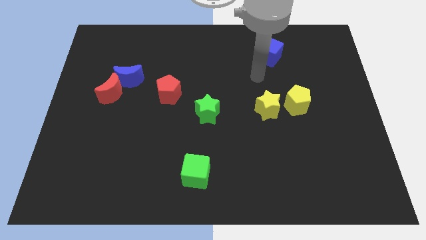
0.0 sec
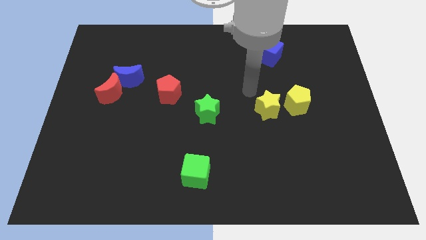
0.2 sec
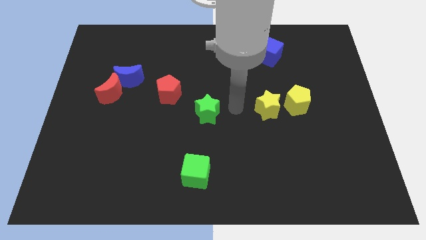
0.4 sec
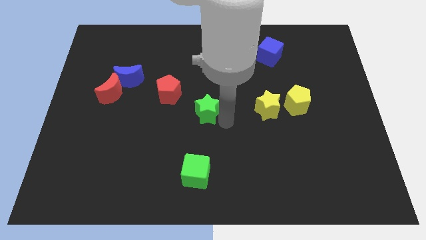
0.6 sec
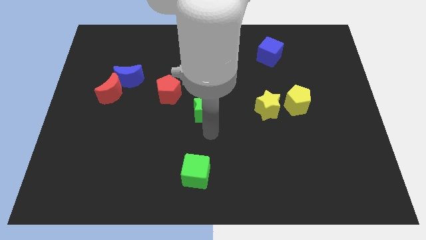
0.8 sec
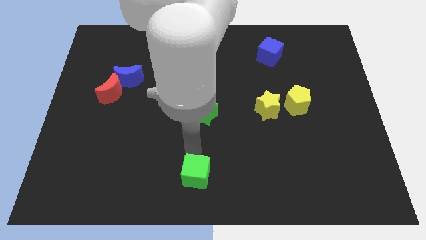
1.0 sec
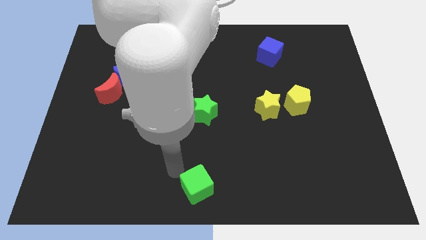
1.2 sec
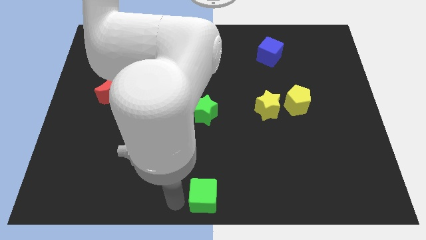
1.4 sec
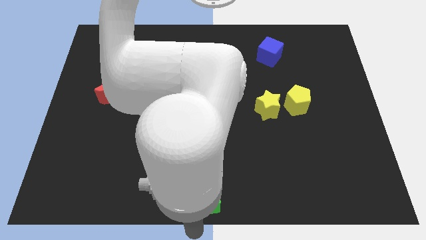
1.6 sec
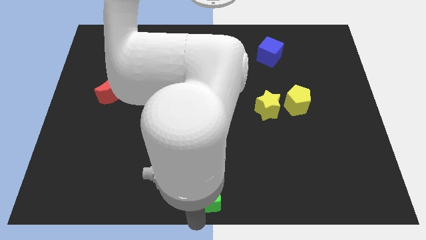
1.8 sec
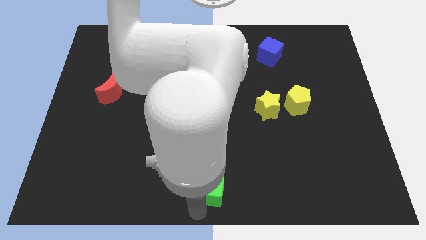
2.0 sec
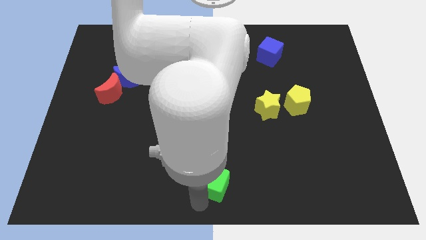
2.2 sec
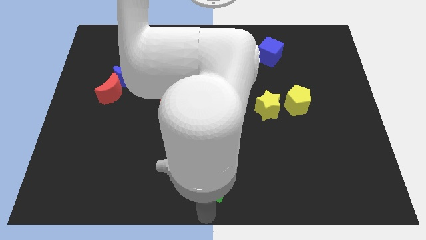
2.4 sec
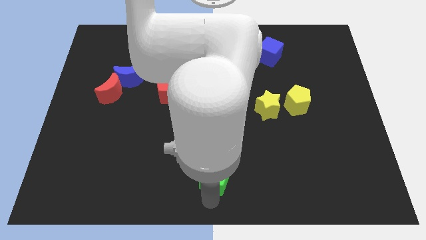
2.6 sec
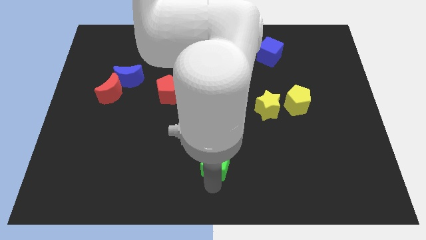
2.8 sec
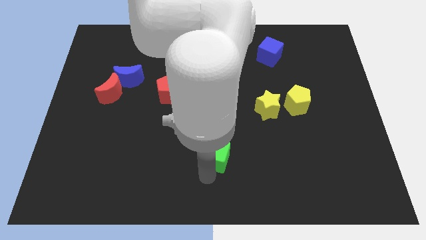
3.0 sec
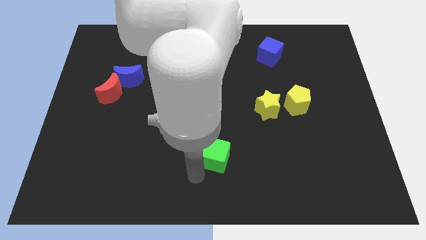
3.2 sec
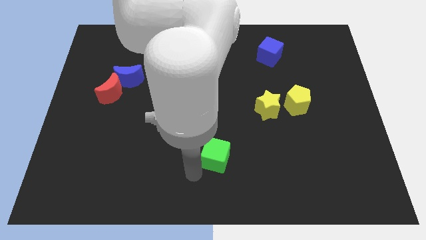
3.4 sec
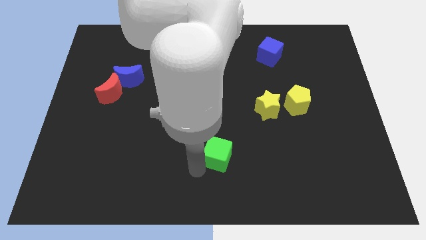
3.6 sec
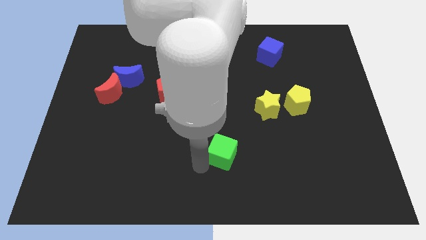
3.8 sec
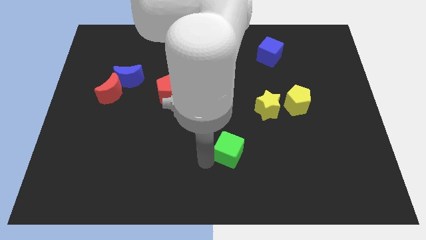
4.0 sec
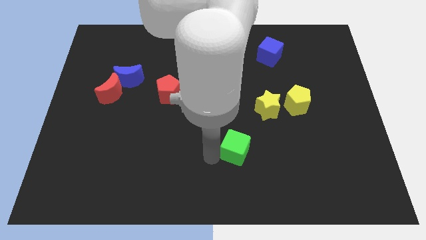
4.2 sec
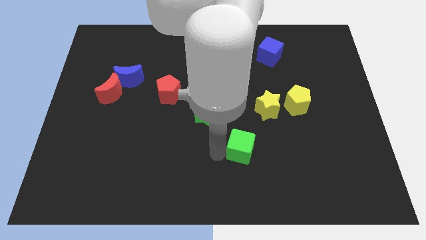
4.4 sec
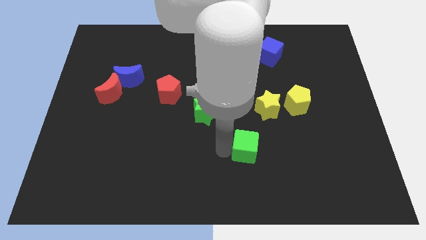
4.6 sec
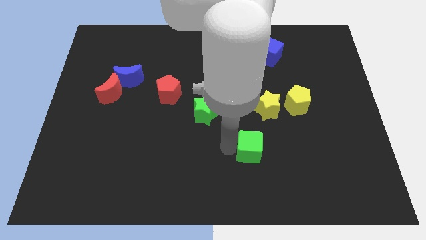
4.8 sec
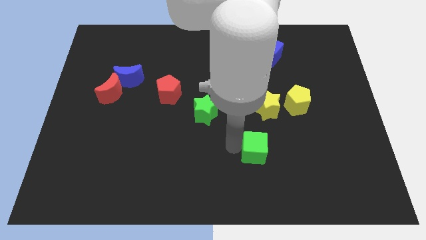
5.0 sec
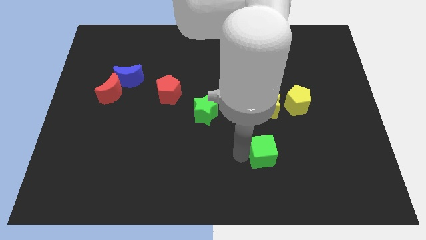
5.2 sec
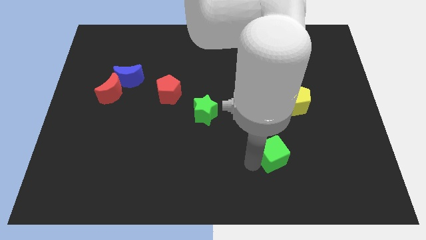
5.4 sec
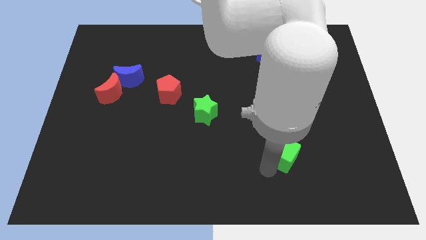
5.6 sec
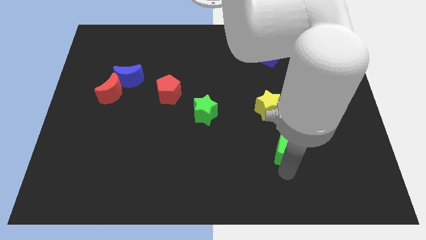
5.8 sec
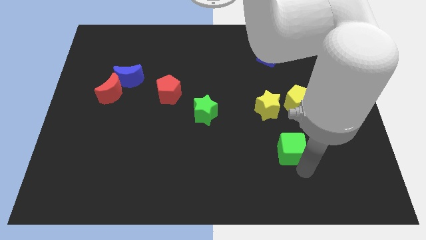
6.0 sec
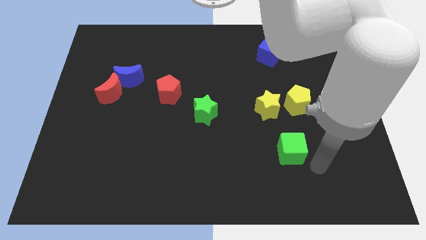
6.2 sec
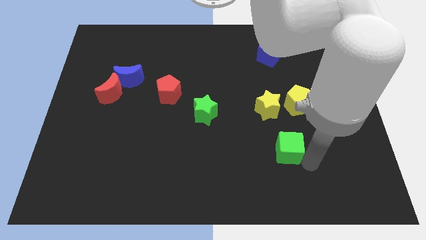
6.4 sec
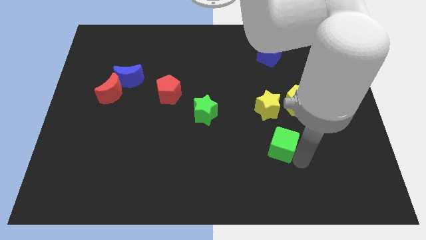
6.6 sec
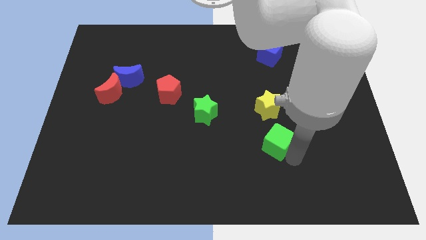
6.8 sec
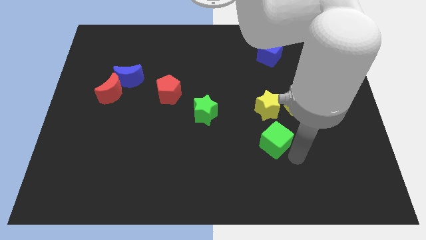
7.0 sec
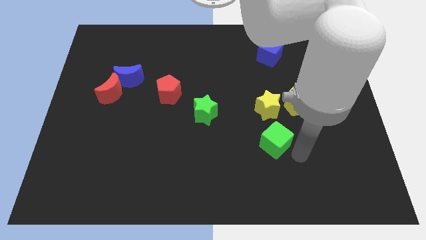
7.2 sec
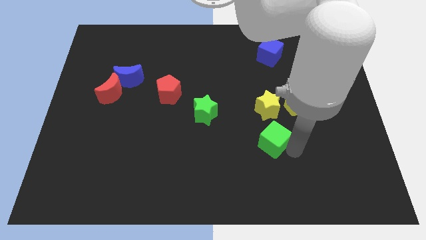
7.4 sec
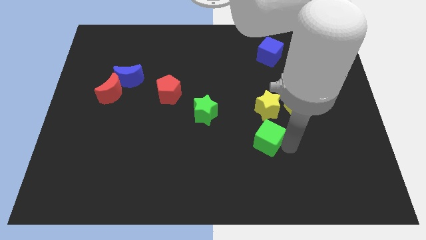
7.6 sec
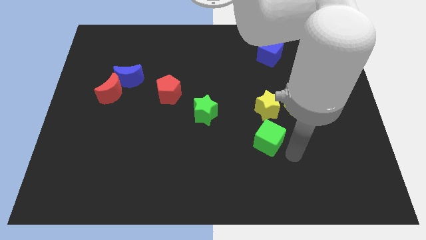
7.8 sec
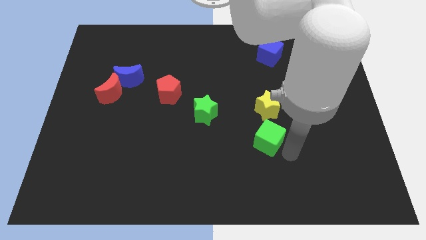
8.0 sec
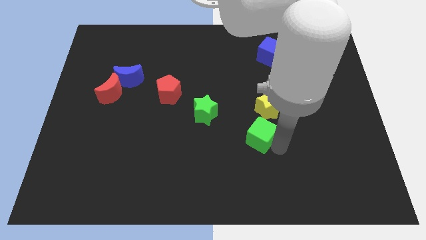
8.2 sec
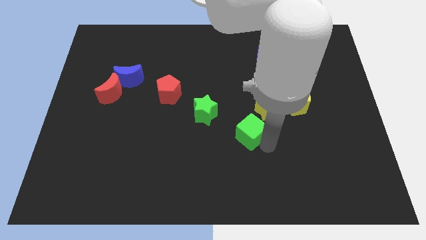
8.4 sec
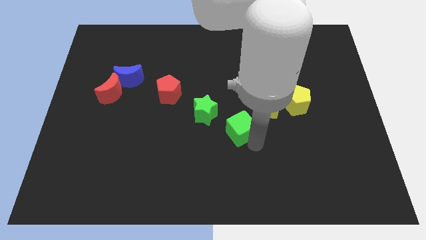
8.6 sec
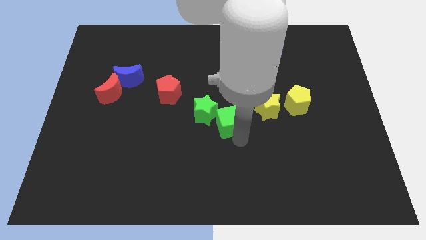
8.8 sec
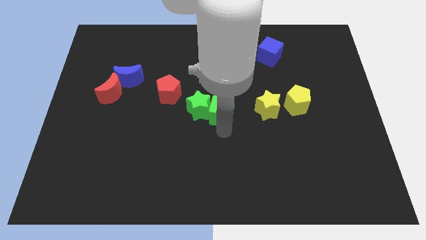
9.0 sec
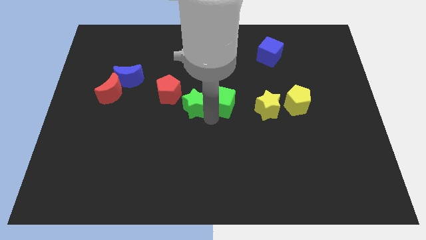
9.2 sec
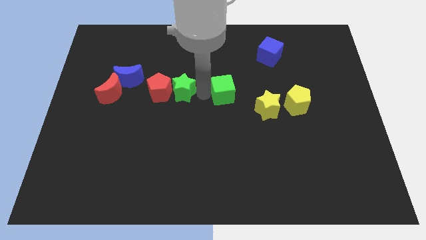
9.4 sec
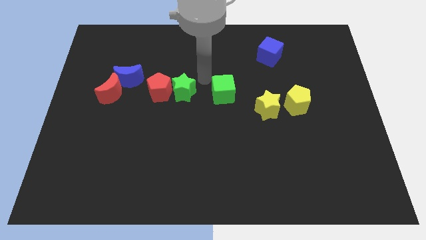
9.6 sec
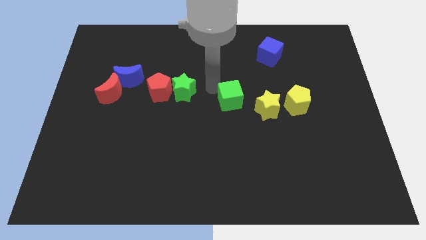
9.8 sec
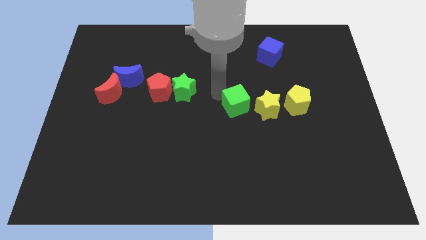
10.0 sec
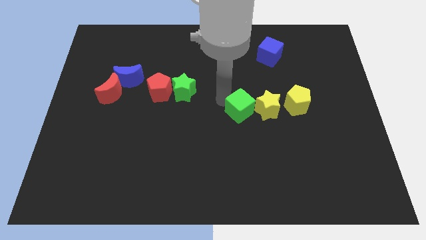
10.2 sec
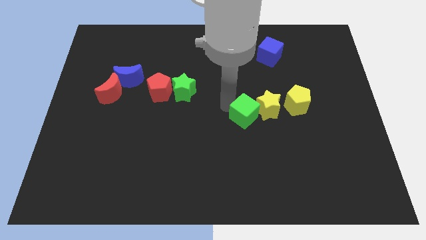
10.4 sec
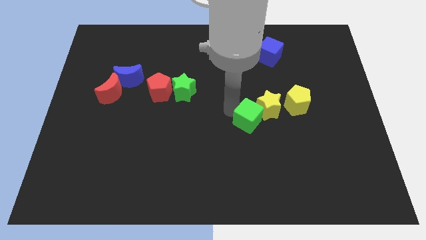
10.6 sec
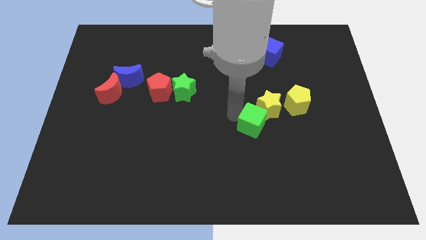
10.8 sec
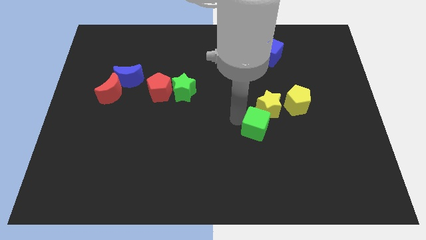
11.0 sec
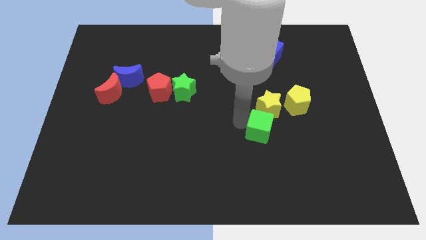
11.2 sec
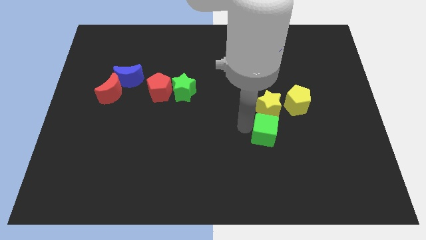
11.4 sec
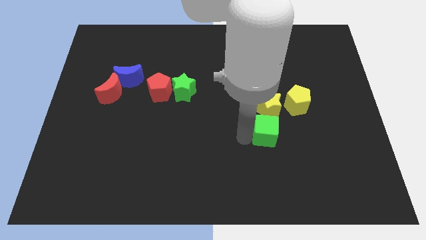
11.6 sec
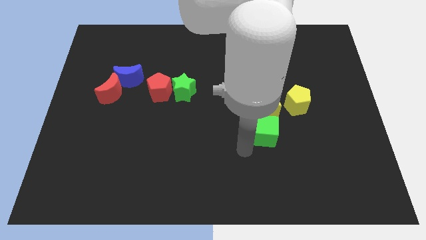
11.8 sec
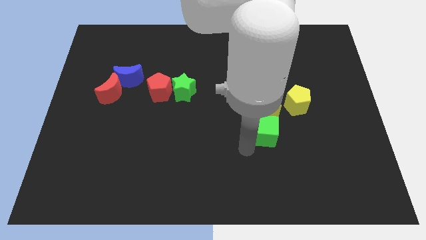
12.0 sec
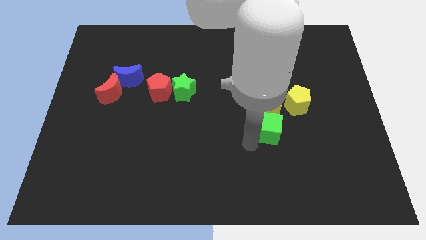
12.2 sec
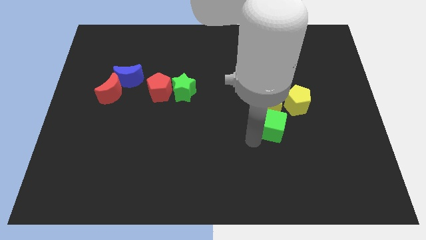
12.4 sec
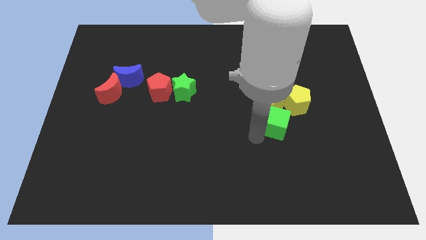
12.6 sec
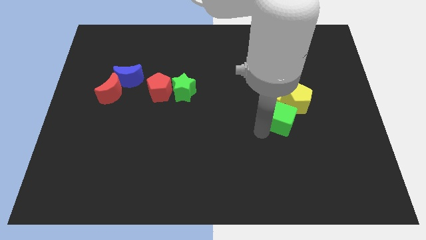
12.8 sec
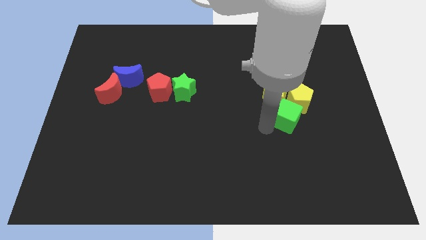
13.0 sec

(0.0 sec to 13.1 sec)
put the green cube towards the yellow pentagon

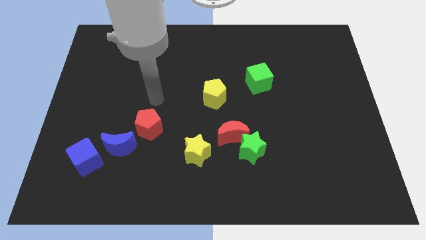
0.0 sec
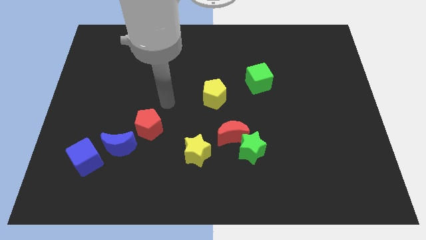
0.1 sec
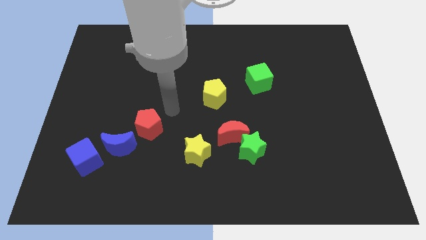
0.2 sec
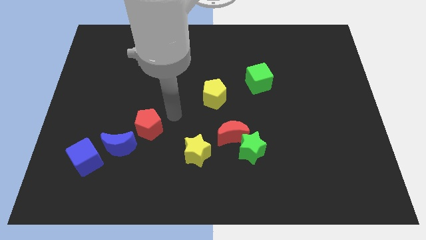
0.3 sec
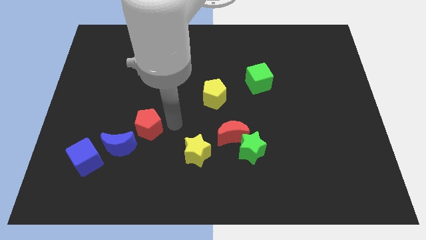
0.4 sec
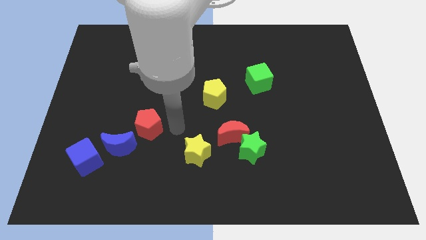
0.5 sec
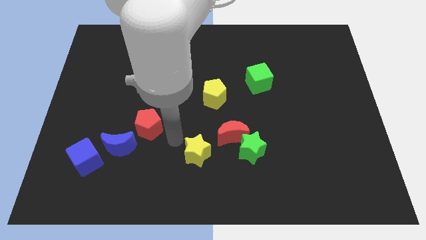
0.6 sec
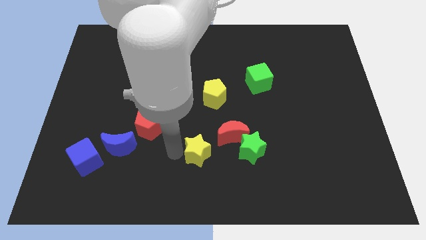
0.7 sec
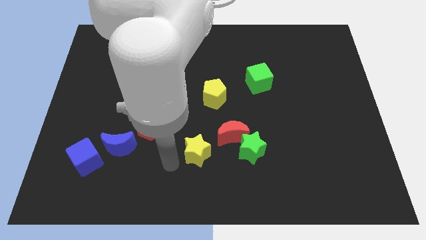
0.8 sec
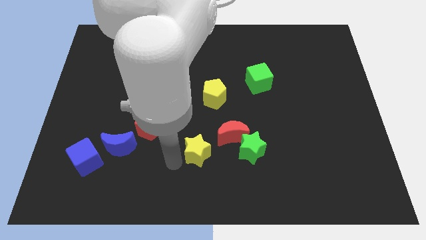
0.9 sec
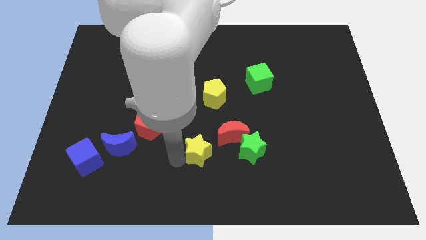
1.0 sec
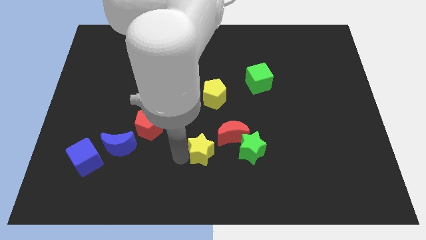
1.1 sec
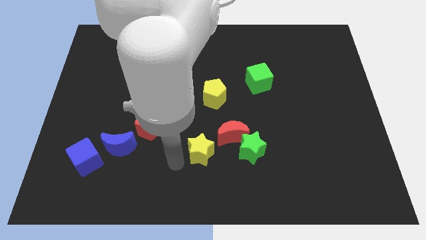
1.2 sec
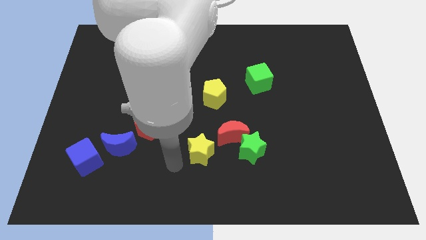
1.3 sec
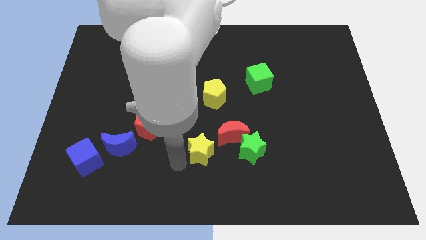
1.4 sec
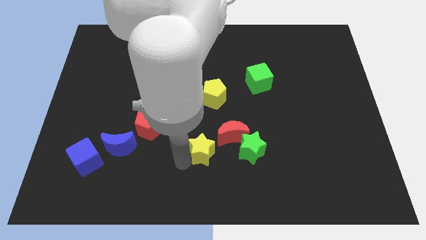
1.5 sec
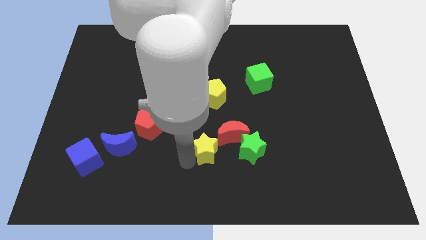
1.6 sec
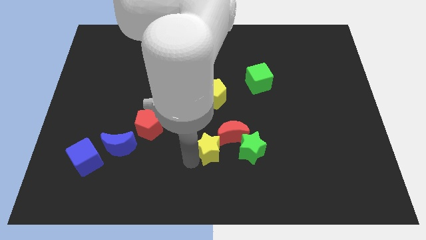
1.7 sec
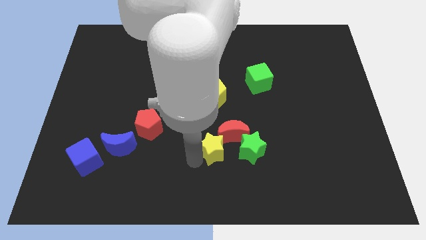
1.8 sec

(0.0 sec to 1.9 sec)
slide the yellow star towards the red moon
